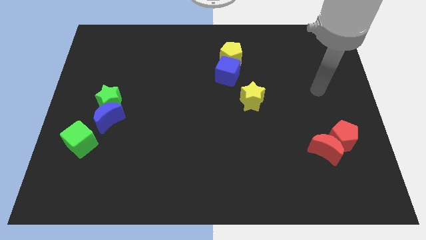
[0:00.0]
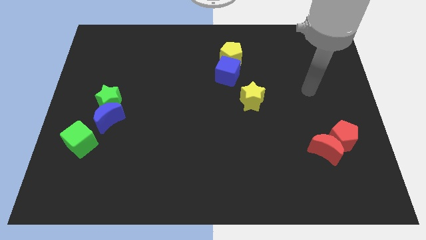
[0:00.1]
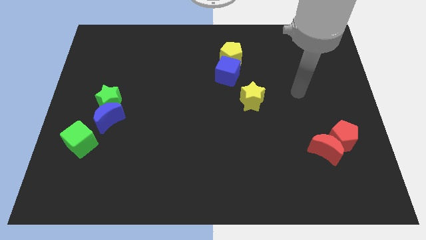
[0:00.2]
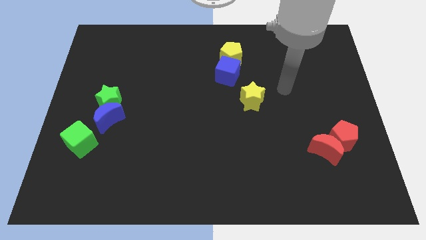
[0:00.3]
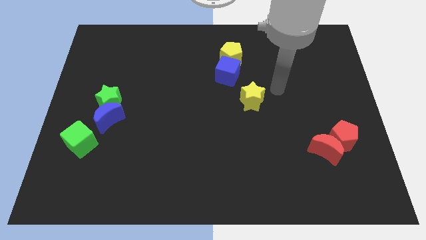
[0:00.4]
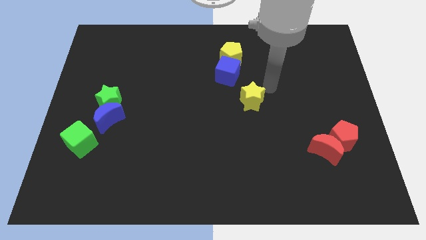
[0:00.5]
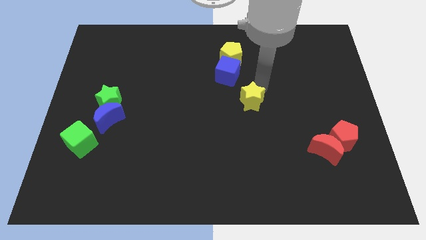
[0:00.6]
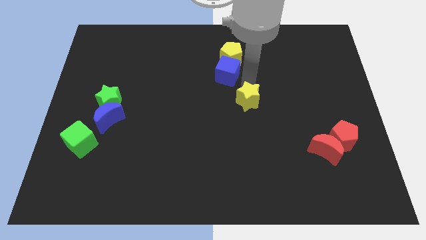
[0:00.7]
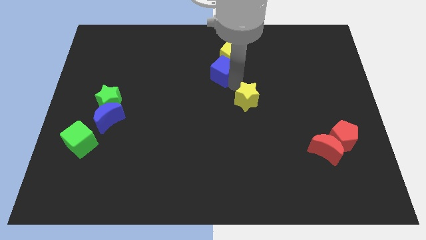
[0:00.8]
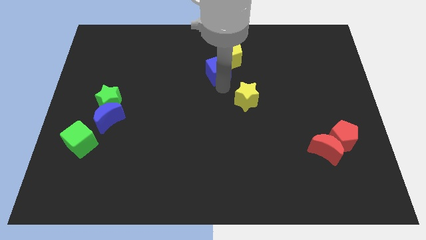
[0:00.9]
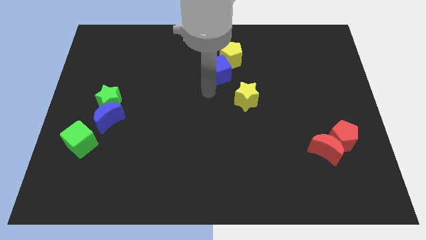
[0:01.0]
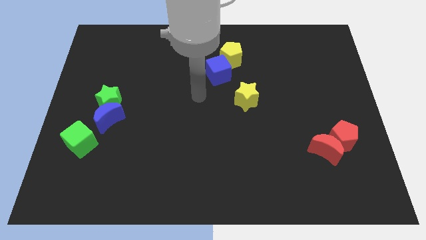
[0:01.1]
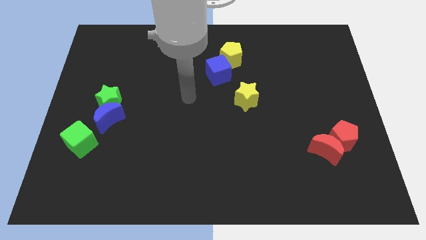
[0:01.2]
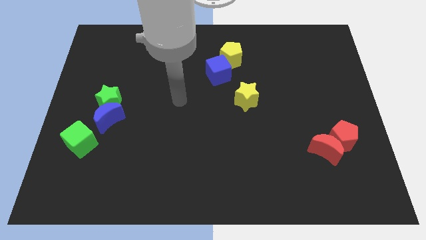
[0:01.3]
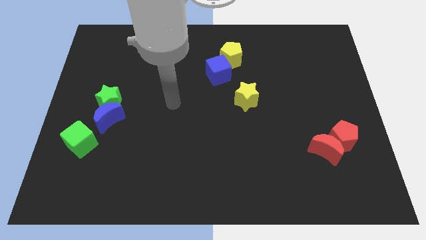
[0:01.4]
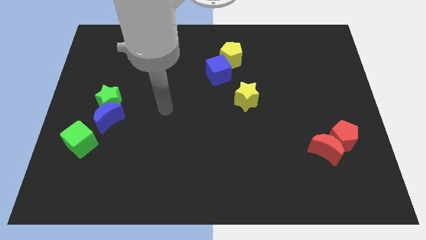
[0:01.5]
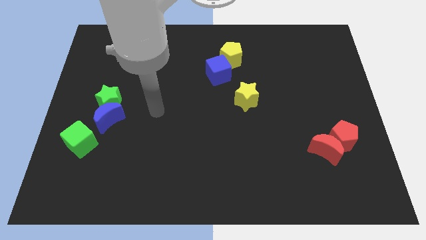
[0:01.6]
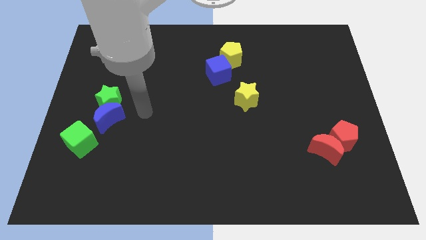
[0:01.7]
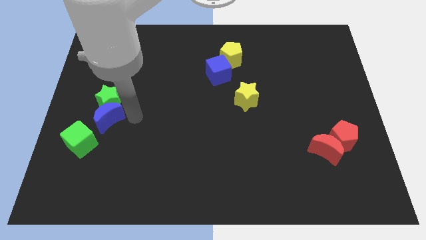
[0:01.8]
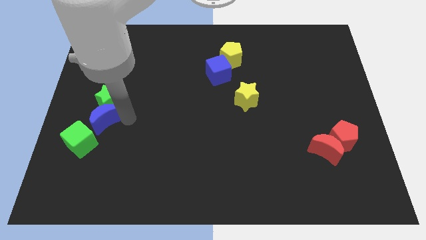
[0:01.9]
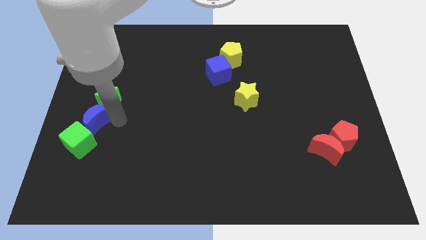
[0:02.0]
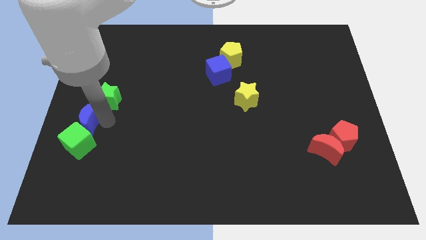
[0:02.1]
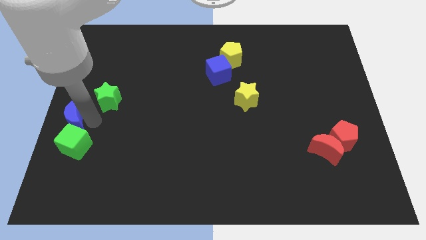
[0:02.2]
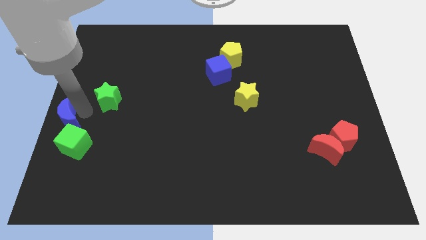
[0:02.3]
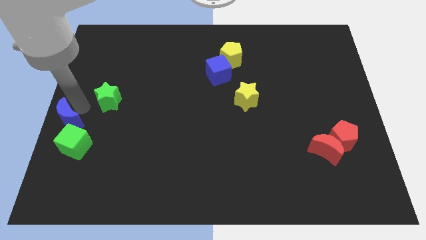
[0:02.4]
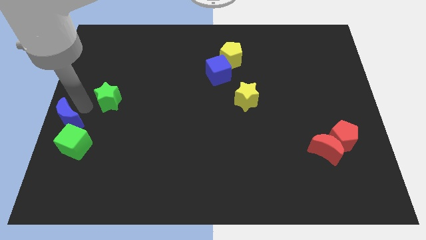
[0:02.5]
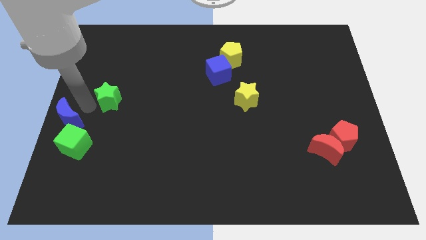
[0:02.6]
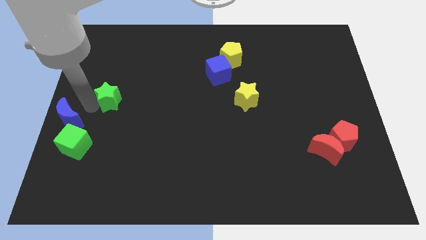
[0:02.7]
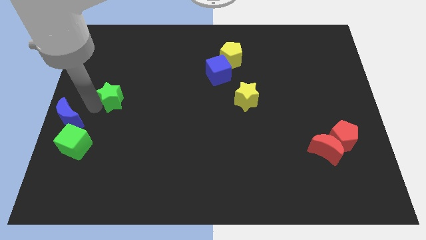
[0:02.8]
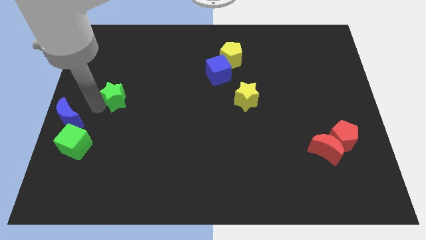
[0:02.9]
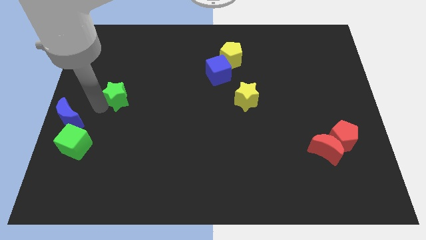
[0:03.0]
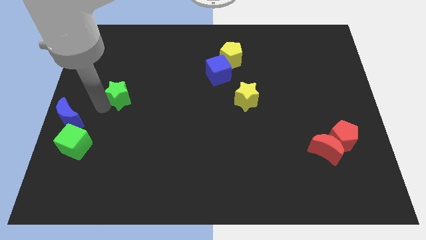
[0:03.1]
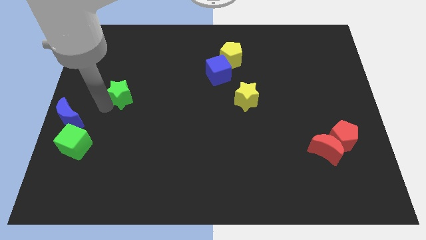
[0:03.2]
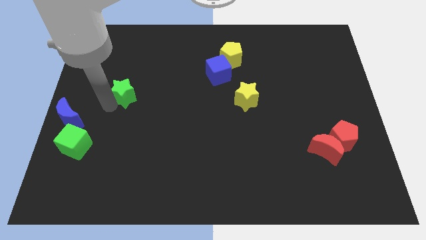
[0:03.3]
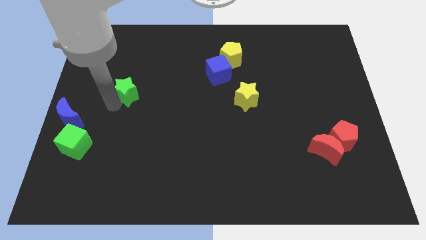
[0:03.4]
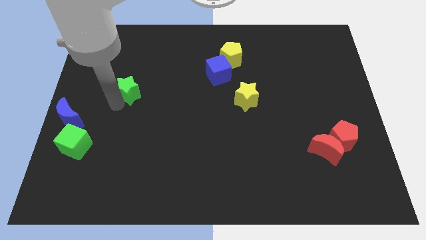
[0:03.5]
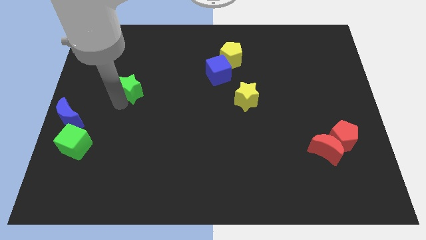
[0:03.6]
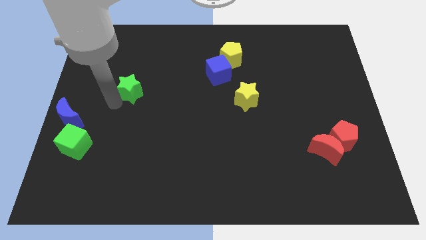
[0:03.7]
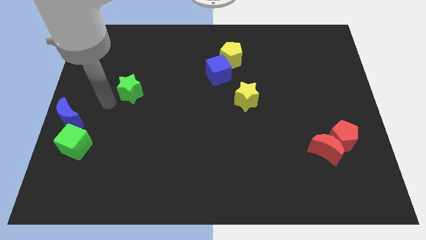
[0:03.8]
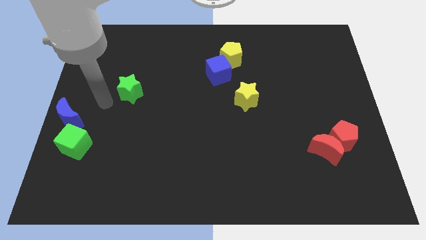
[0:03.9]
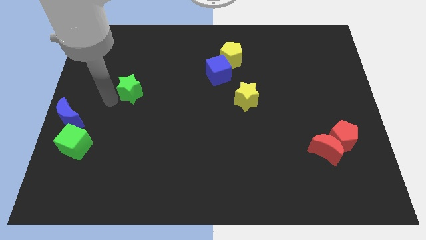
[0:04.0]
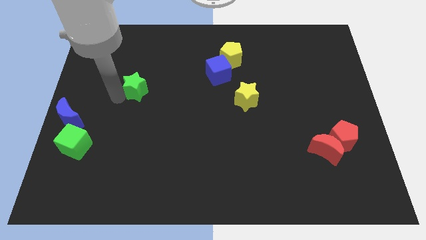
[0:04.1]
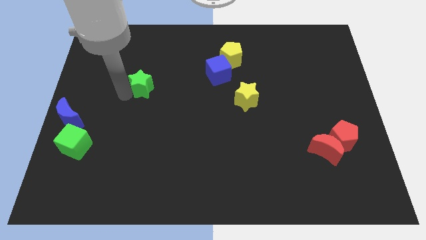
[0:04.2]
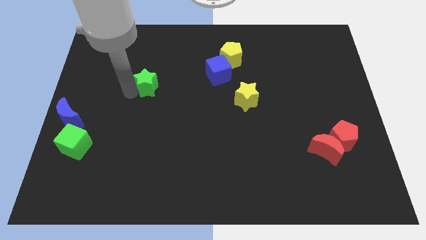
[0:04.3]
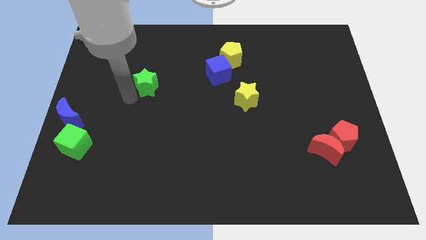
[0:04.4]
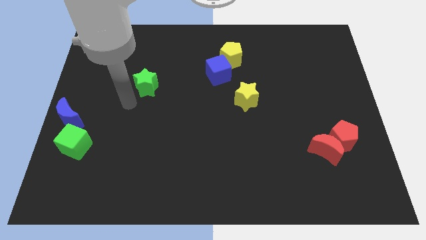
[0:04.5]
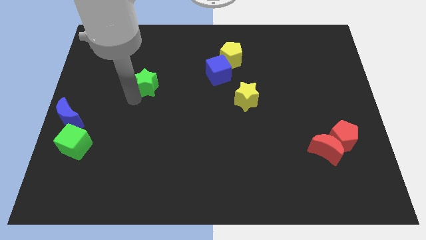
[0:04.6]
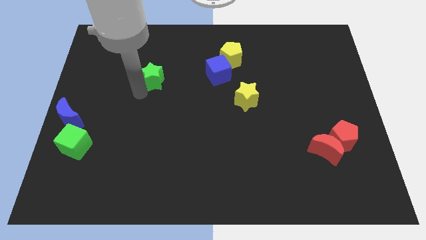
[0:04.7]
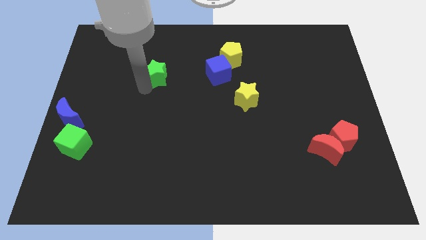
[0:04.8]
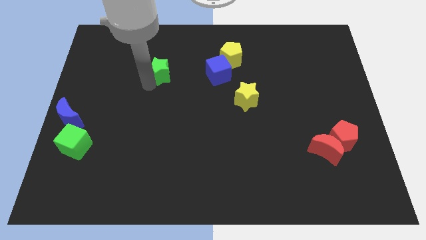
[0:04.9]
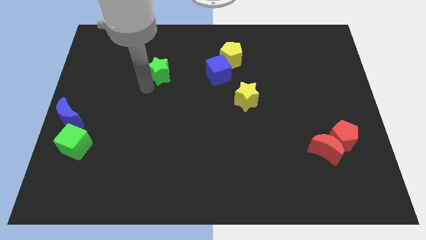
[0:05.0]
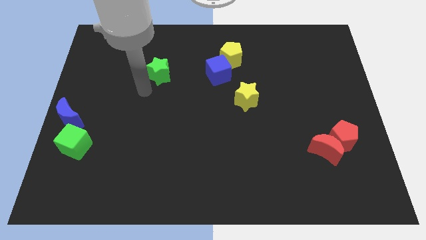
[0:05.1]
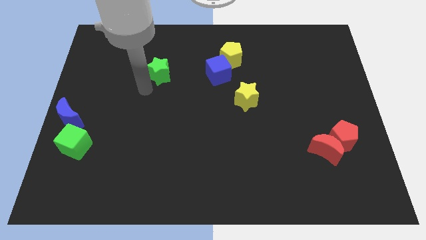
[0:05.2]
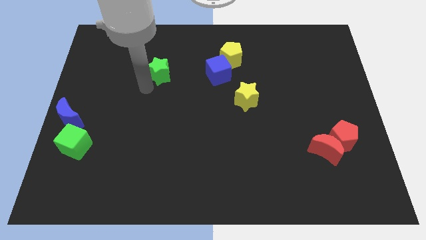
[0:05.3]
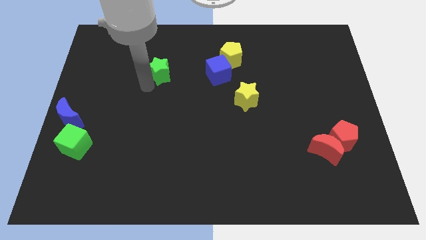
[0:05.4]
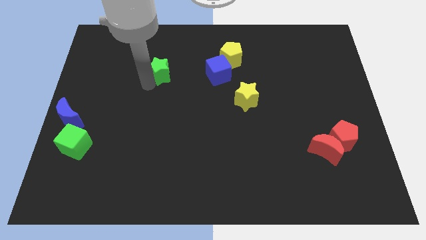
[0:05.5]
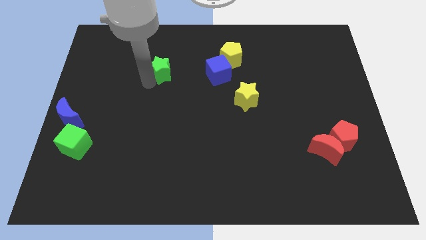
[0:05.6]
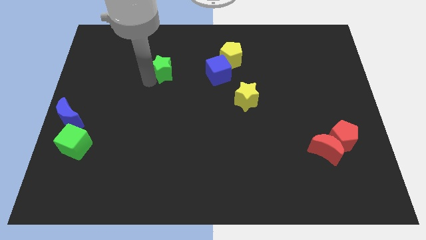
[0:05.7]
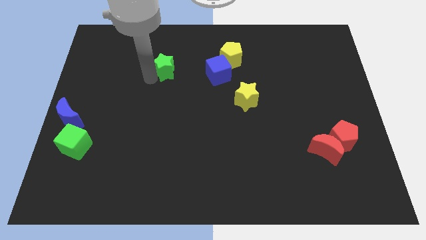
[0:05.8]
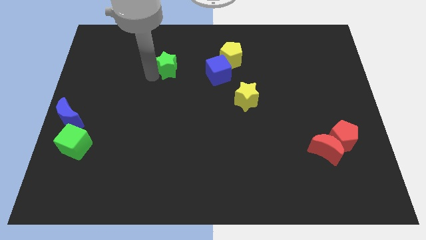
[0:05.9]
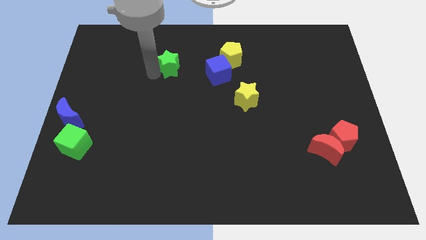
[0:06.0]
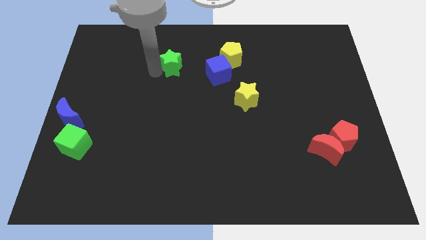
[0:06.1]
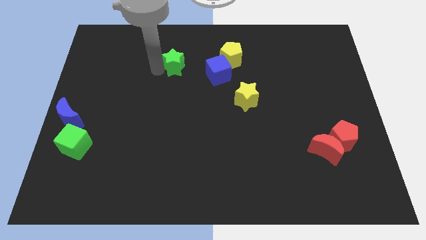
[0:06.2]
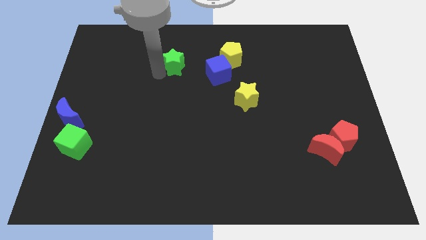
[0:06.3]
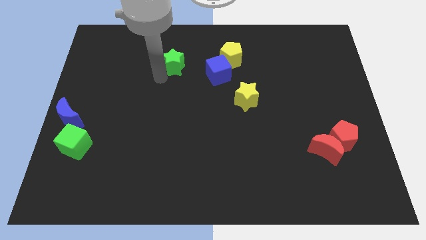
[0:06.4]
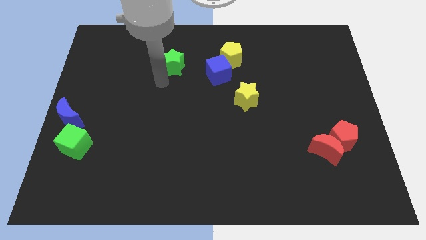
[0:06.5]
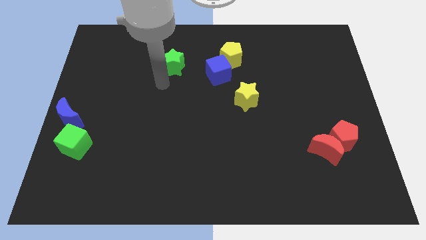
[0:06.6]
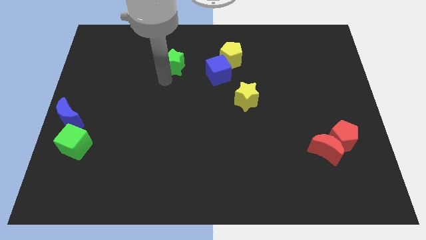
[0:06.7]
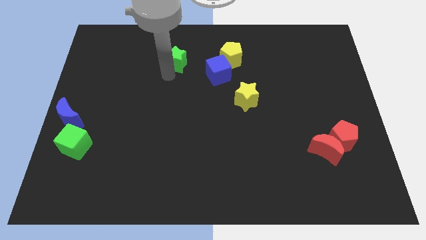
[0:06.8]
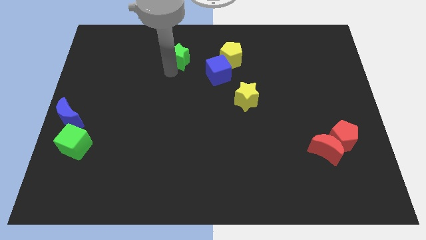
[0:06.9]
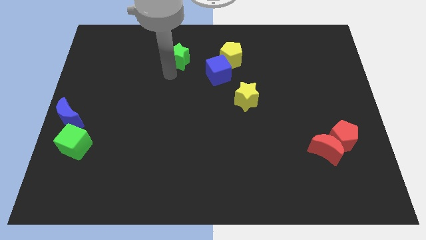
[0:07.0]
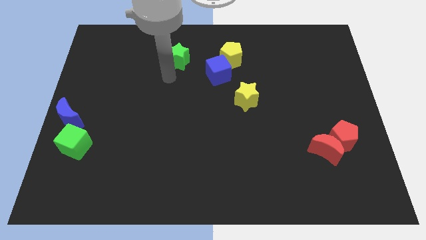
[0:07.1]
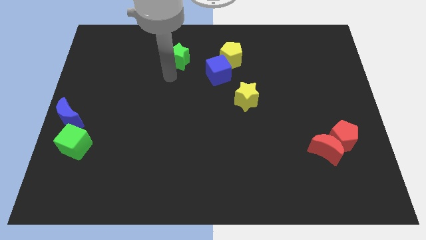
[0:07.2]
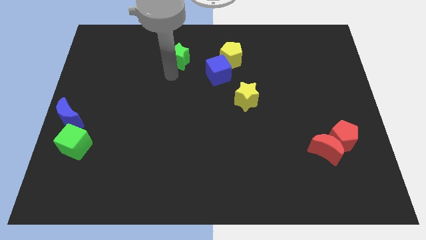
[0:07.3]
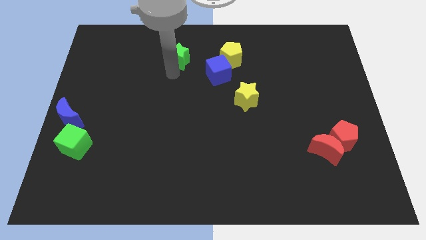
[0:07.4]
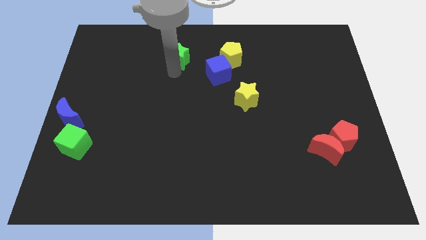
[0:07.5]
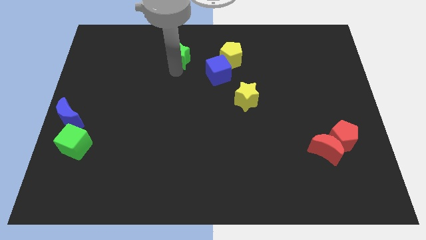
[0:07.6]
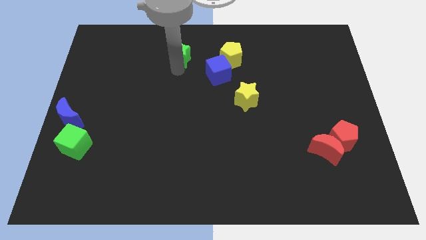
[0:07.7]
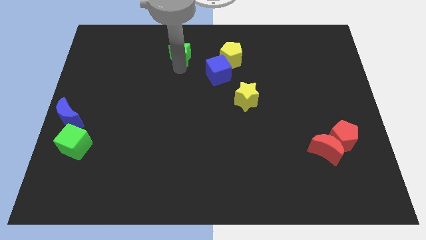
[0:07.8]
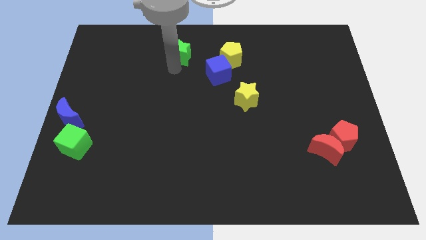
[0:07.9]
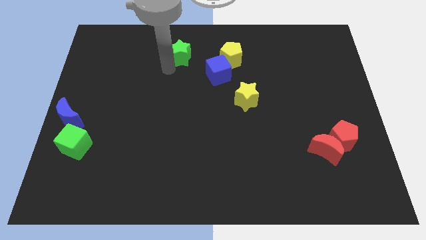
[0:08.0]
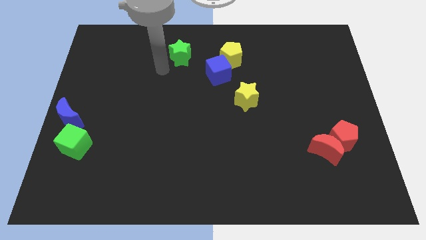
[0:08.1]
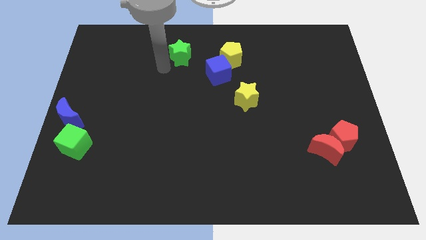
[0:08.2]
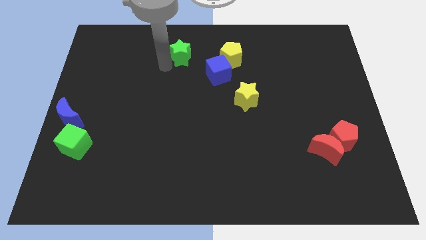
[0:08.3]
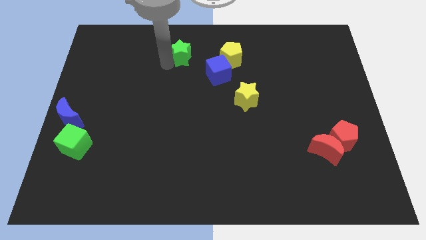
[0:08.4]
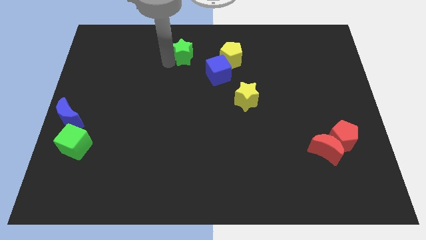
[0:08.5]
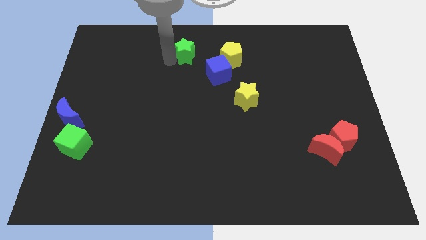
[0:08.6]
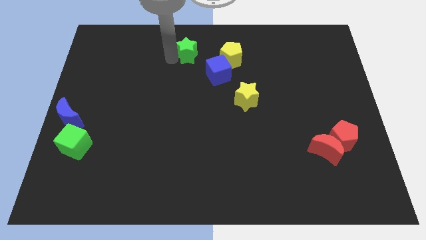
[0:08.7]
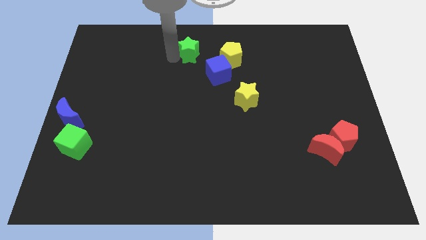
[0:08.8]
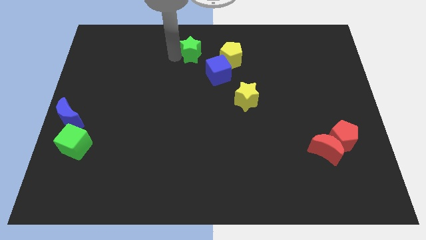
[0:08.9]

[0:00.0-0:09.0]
push the green star to the top side
